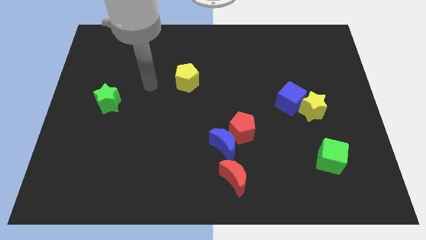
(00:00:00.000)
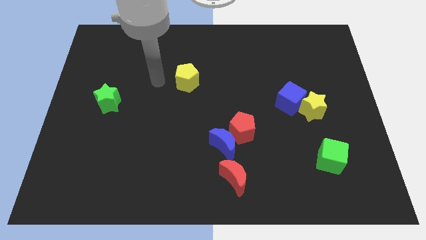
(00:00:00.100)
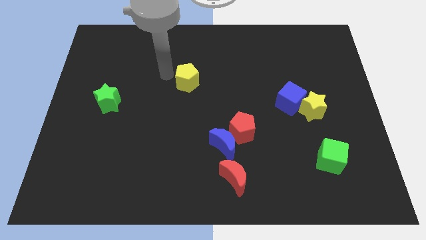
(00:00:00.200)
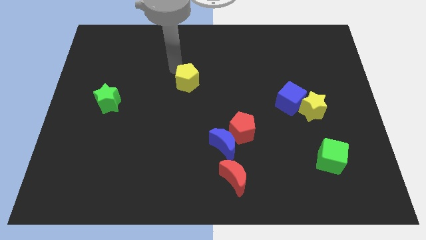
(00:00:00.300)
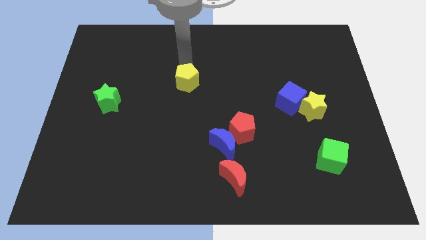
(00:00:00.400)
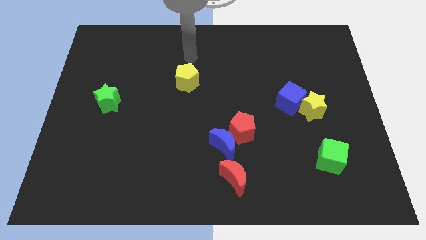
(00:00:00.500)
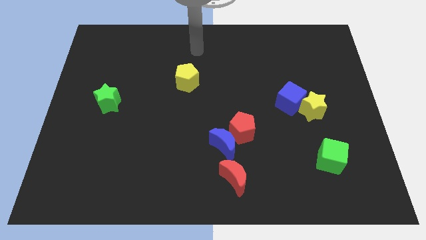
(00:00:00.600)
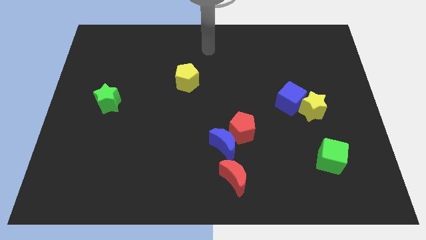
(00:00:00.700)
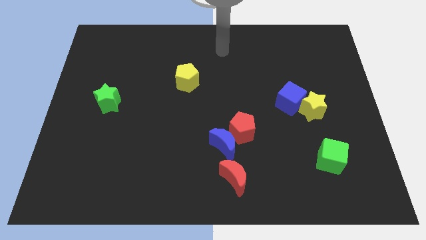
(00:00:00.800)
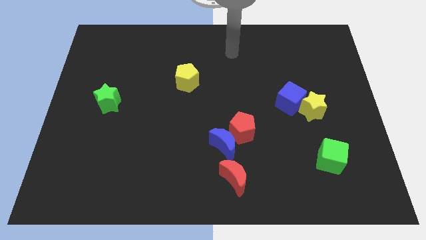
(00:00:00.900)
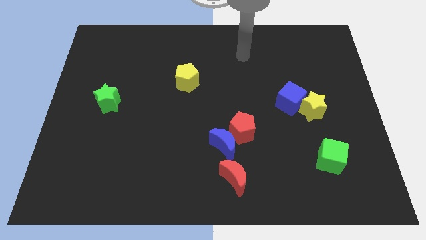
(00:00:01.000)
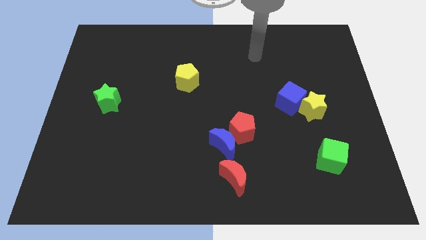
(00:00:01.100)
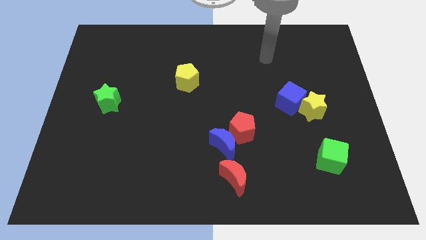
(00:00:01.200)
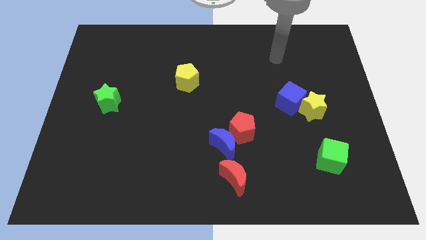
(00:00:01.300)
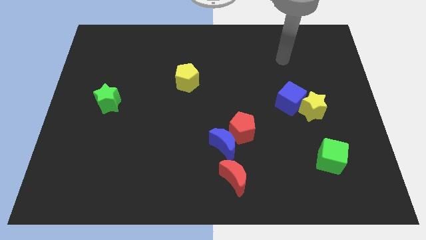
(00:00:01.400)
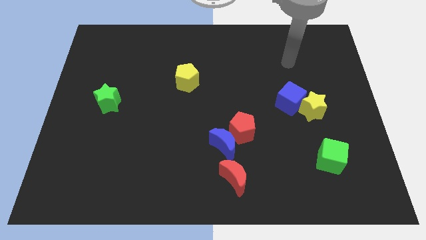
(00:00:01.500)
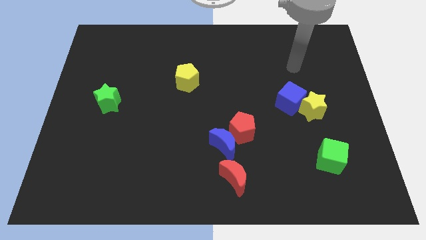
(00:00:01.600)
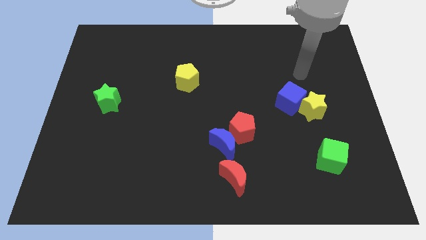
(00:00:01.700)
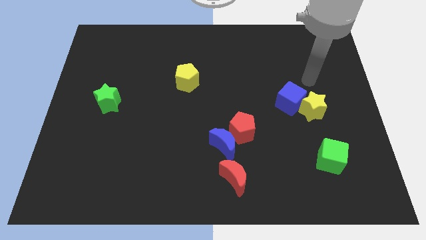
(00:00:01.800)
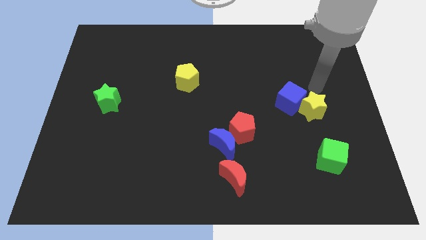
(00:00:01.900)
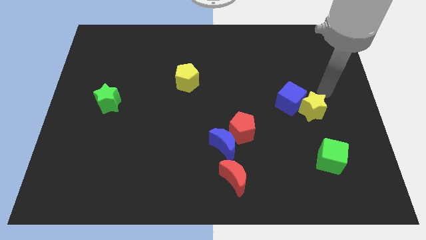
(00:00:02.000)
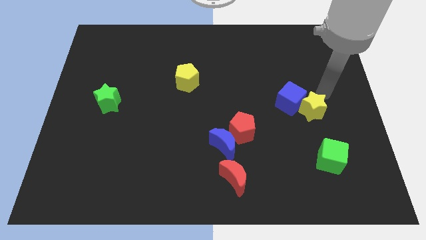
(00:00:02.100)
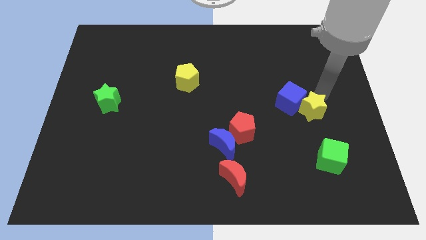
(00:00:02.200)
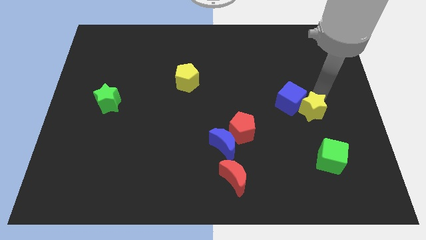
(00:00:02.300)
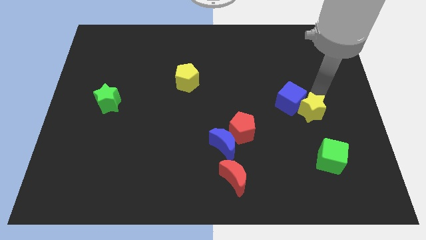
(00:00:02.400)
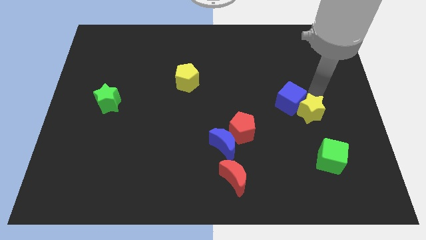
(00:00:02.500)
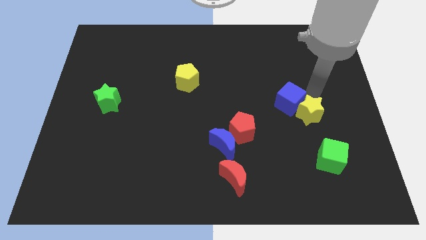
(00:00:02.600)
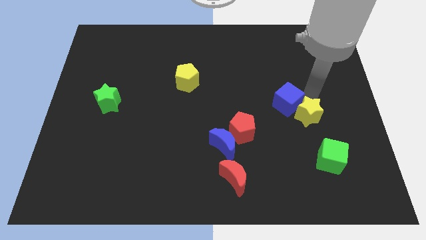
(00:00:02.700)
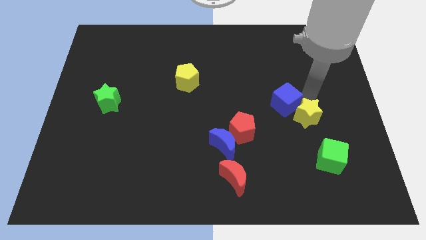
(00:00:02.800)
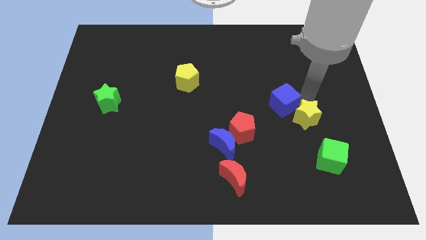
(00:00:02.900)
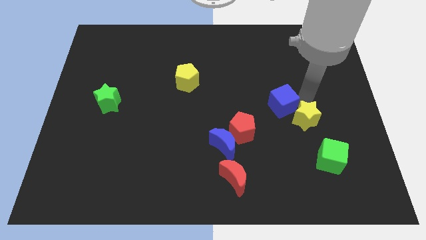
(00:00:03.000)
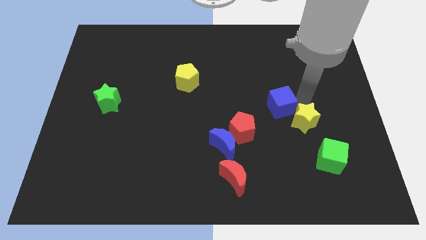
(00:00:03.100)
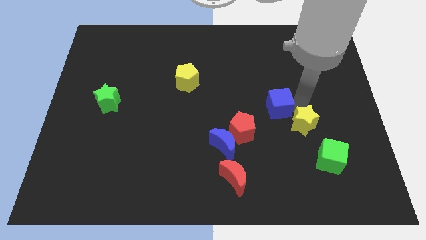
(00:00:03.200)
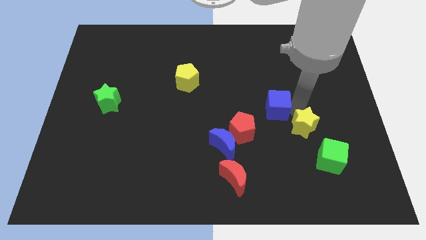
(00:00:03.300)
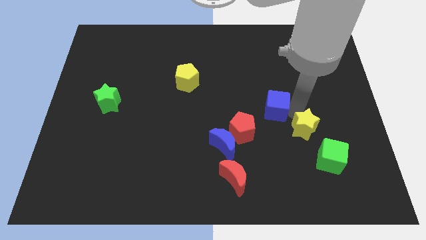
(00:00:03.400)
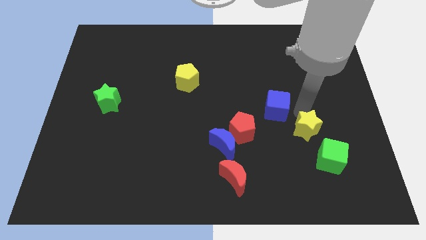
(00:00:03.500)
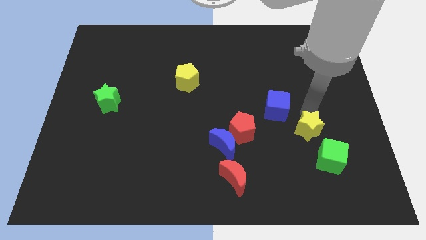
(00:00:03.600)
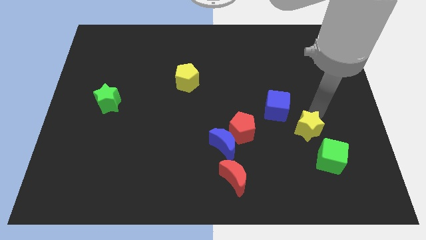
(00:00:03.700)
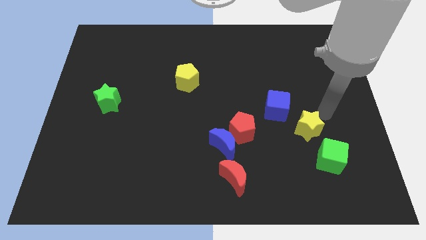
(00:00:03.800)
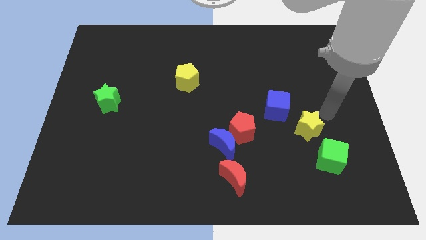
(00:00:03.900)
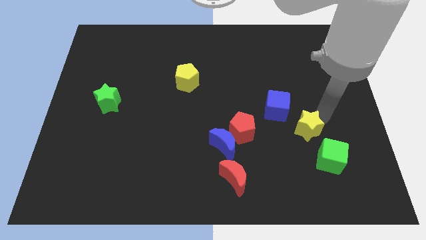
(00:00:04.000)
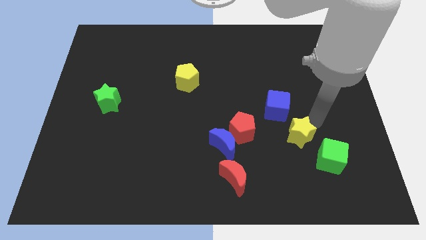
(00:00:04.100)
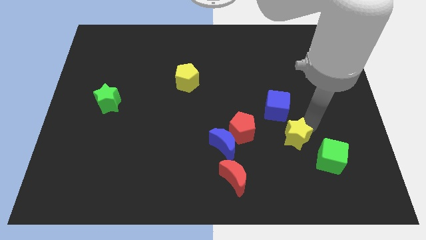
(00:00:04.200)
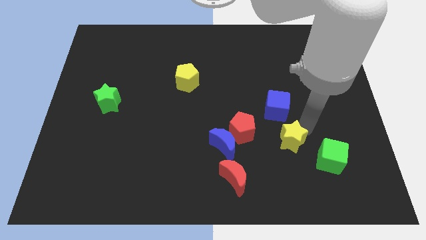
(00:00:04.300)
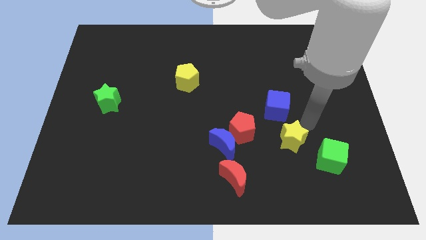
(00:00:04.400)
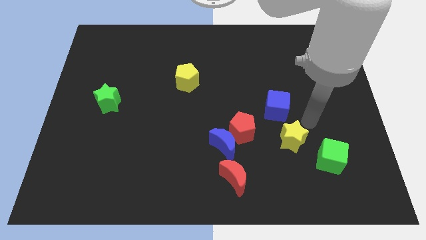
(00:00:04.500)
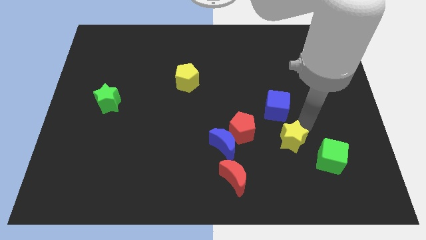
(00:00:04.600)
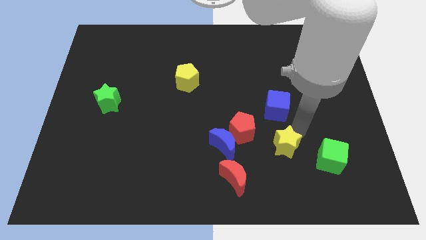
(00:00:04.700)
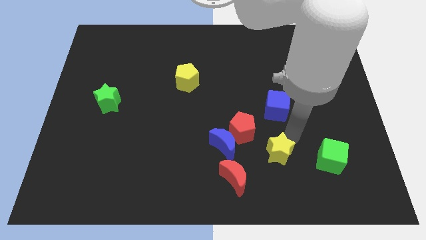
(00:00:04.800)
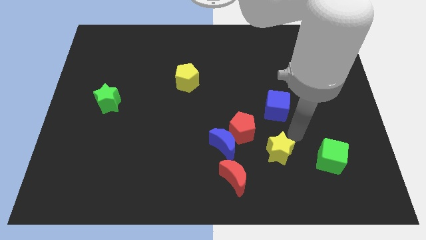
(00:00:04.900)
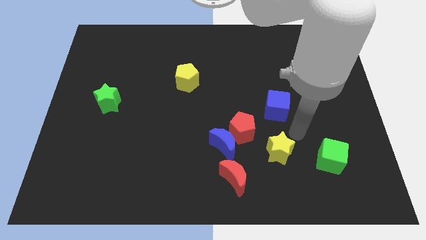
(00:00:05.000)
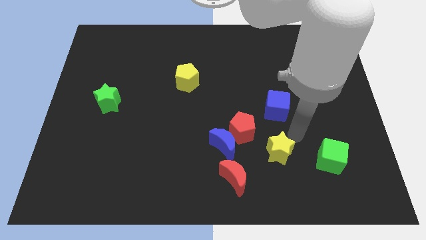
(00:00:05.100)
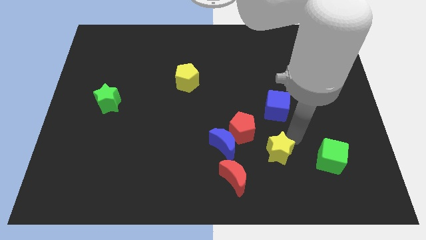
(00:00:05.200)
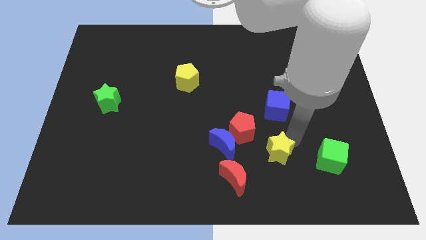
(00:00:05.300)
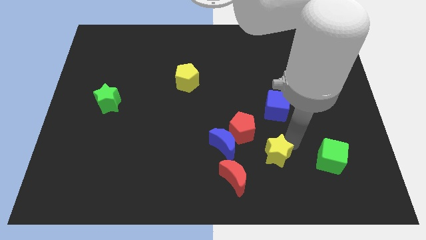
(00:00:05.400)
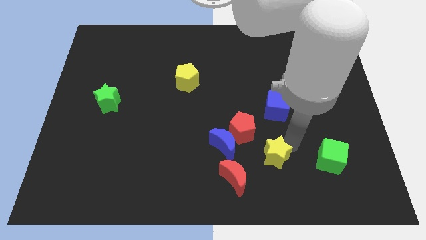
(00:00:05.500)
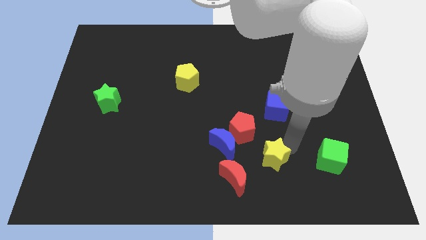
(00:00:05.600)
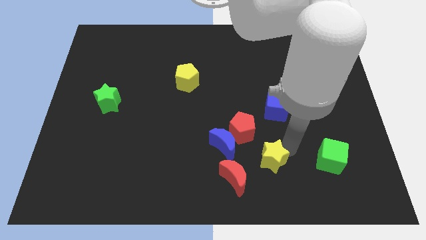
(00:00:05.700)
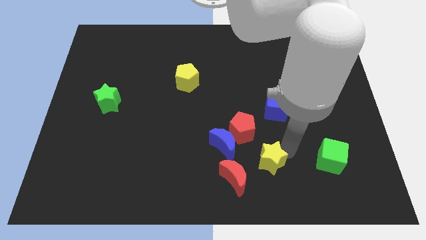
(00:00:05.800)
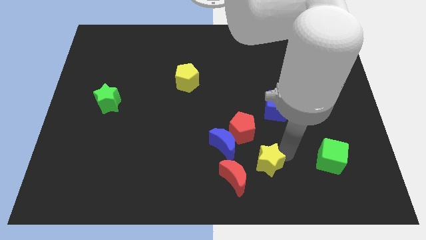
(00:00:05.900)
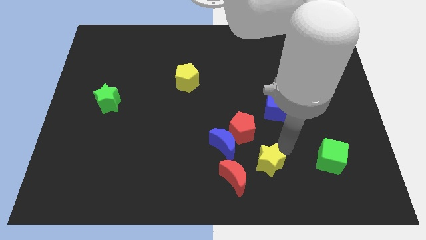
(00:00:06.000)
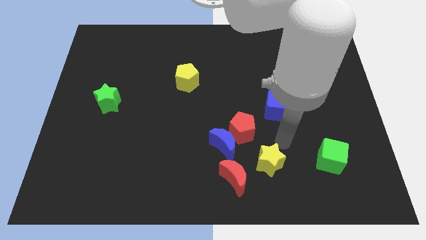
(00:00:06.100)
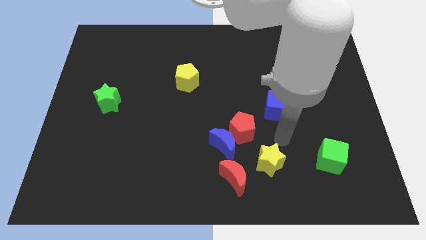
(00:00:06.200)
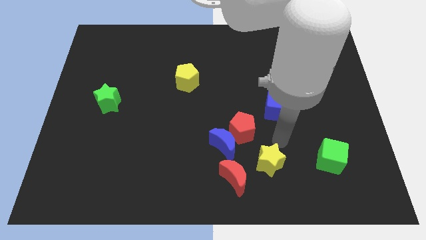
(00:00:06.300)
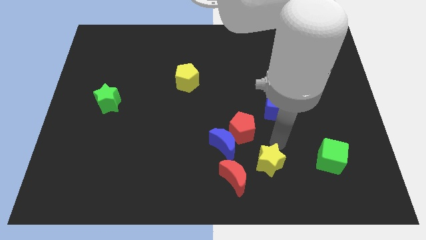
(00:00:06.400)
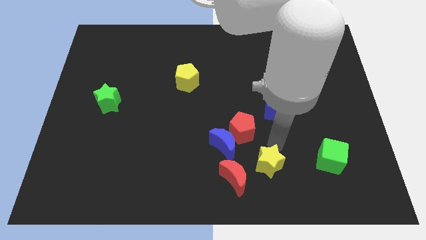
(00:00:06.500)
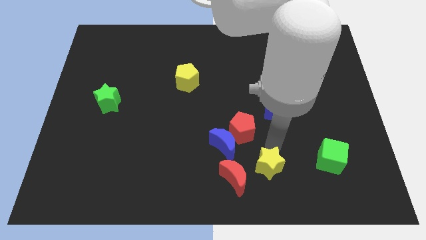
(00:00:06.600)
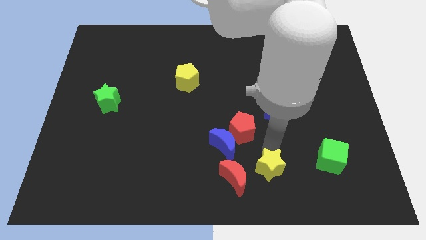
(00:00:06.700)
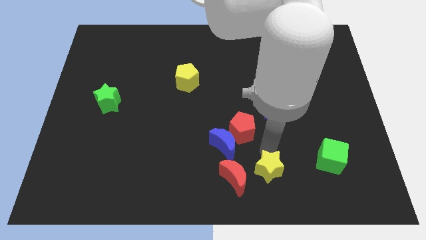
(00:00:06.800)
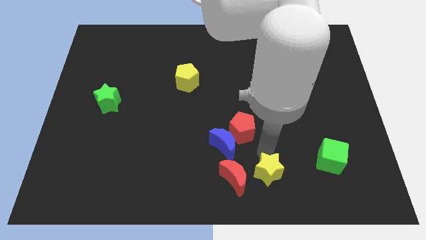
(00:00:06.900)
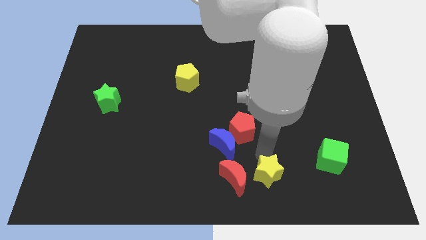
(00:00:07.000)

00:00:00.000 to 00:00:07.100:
move the yellow star to the bottom side

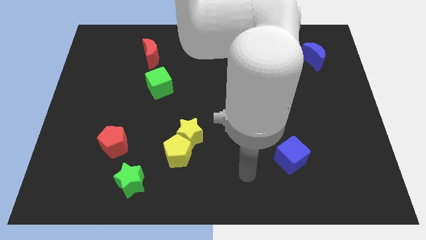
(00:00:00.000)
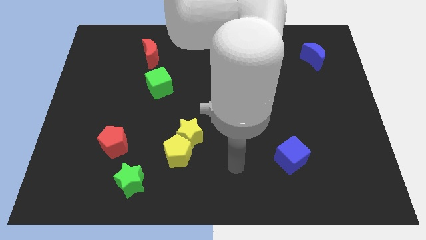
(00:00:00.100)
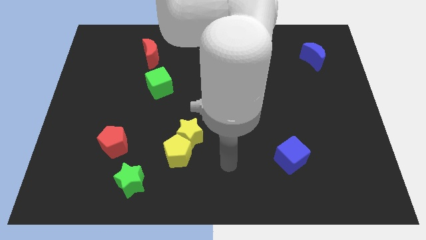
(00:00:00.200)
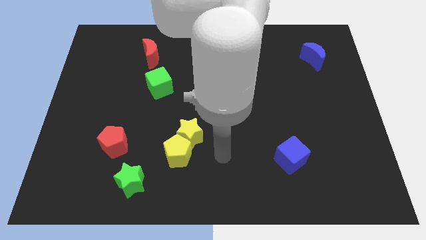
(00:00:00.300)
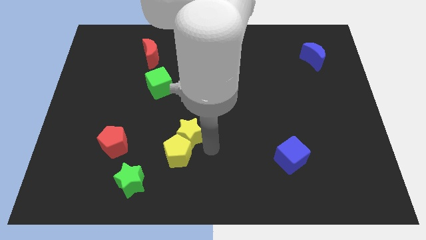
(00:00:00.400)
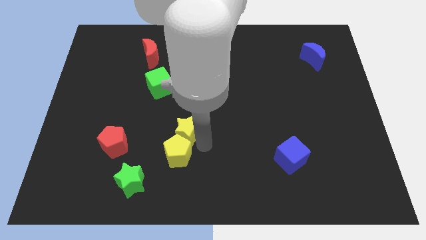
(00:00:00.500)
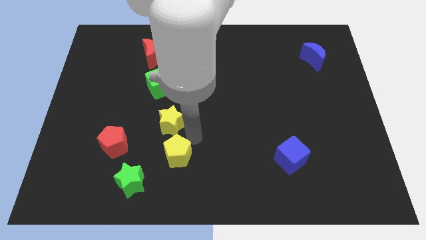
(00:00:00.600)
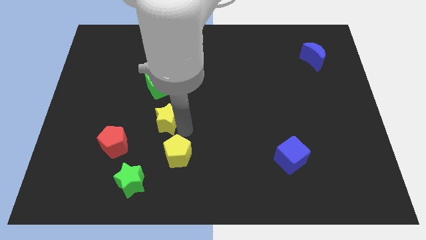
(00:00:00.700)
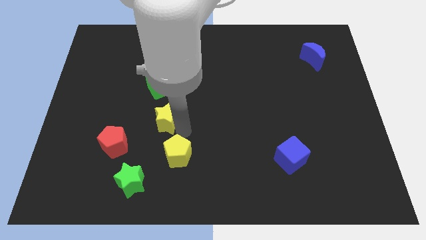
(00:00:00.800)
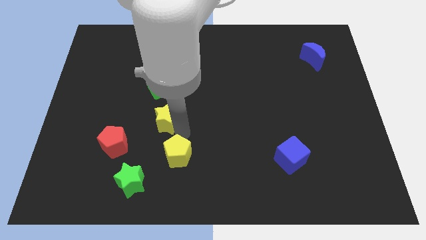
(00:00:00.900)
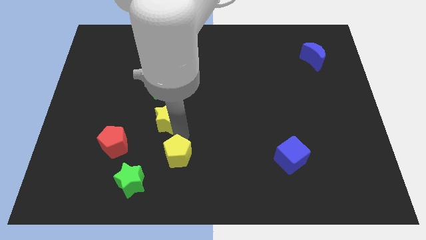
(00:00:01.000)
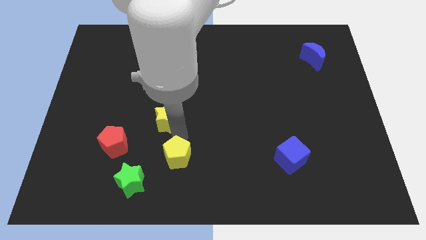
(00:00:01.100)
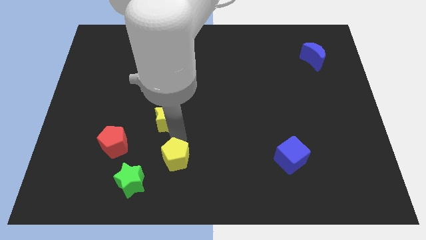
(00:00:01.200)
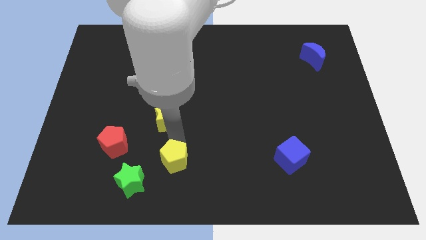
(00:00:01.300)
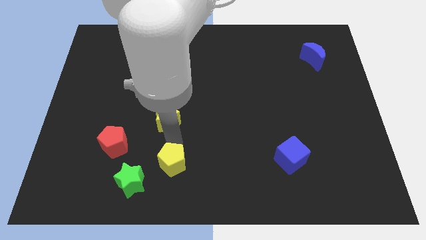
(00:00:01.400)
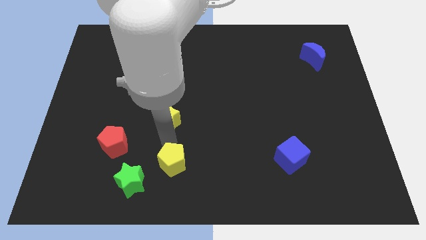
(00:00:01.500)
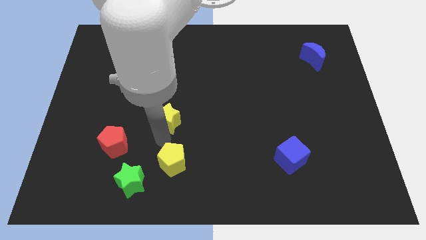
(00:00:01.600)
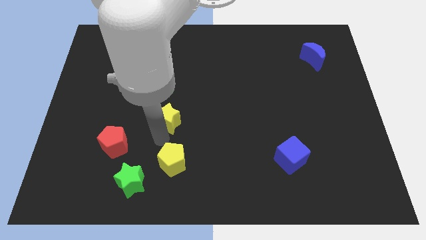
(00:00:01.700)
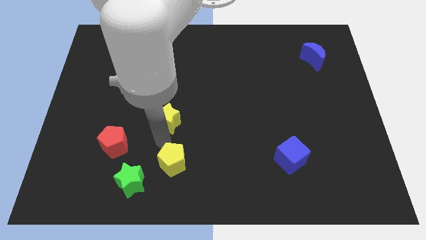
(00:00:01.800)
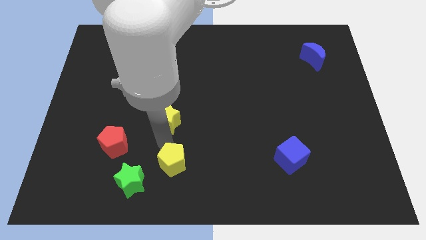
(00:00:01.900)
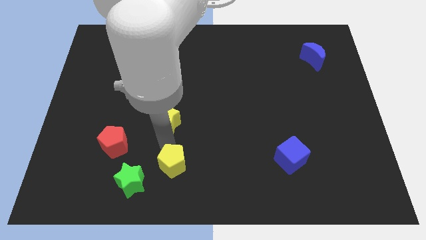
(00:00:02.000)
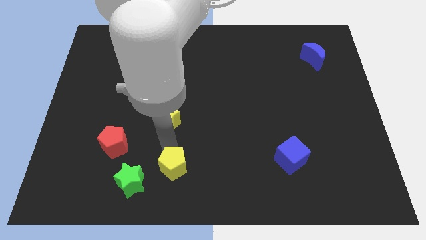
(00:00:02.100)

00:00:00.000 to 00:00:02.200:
push the yellow pentagon to the bottom side
